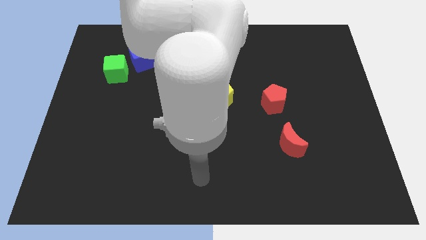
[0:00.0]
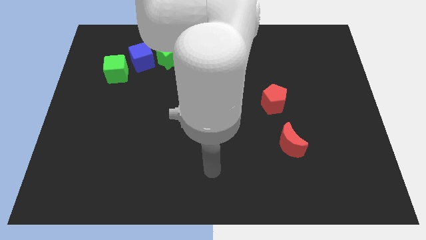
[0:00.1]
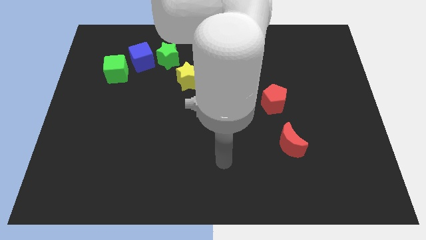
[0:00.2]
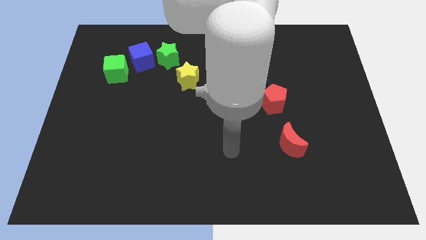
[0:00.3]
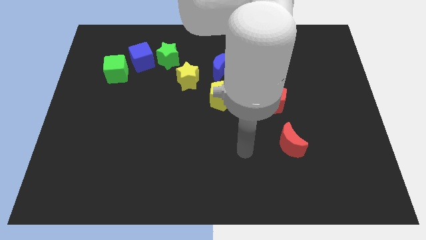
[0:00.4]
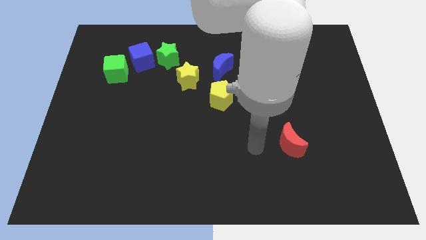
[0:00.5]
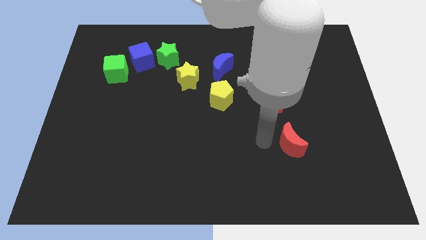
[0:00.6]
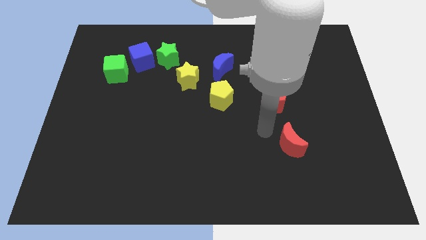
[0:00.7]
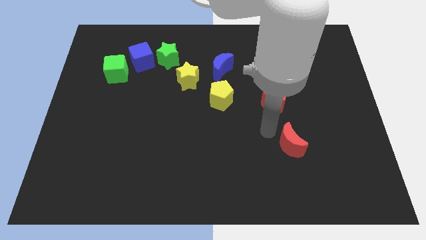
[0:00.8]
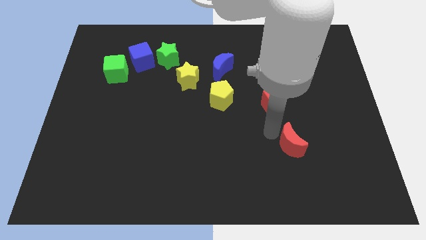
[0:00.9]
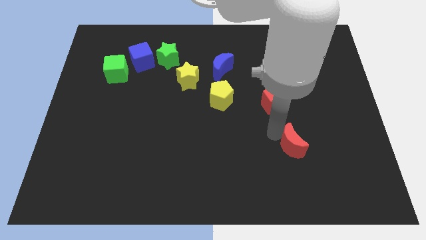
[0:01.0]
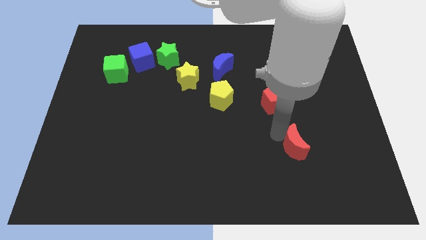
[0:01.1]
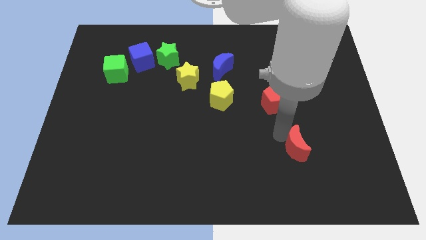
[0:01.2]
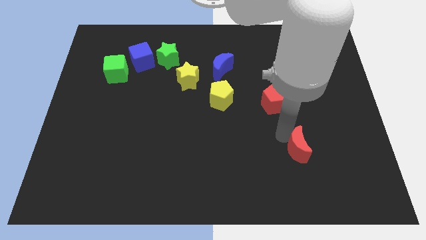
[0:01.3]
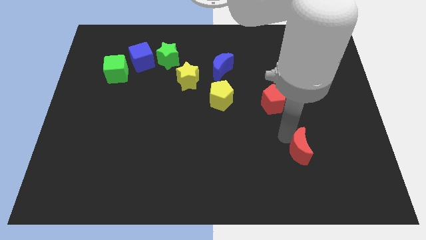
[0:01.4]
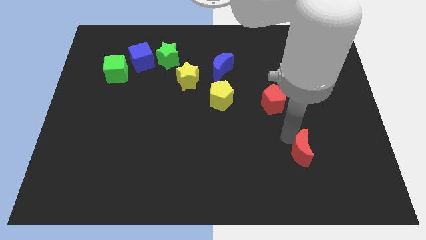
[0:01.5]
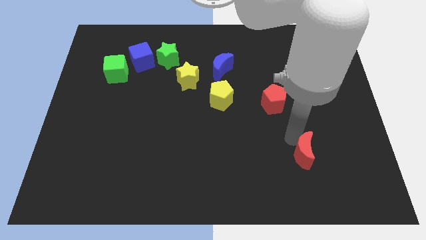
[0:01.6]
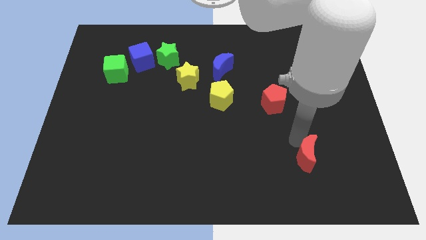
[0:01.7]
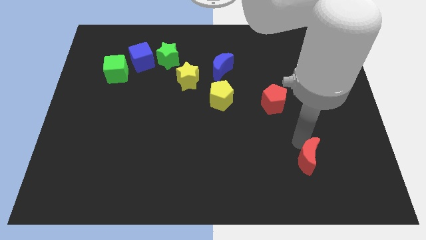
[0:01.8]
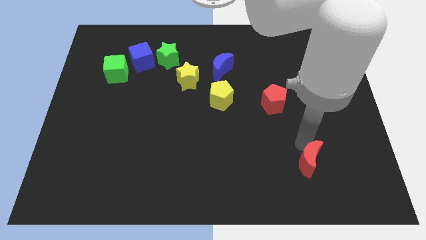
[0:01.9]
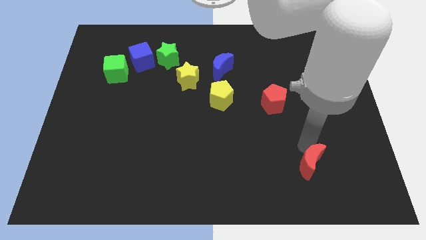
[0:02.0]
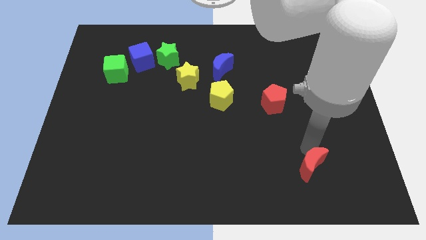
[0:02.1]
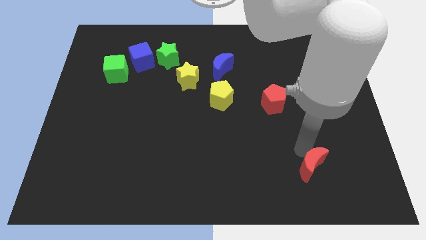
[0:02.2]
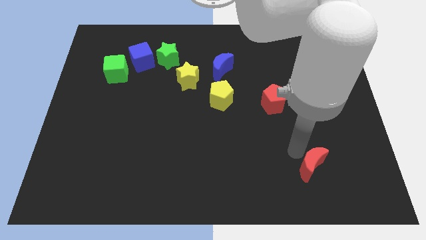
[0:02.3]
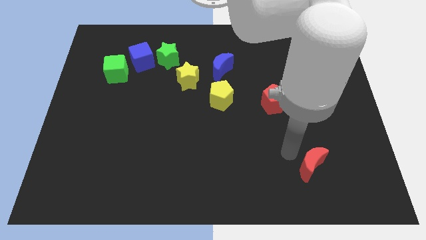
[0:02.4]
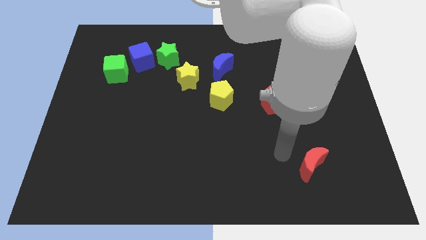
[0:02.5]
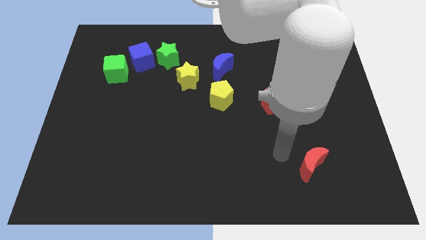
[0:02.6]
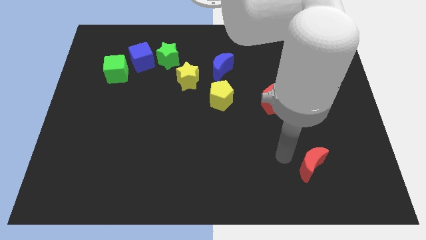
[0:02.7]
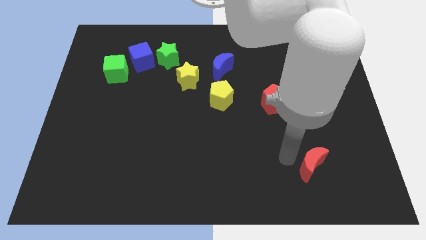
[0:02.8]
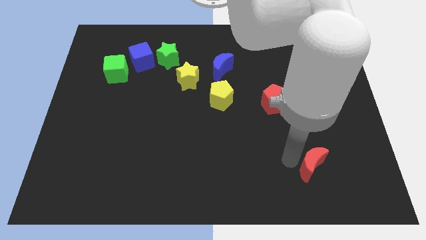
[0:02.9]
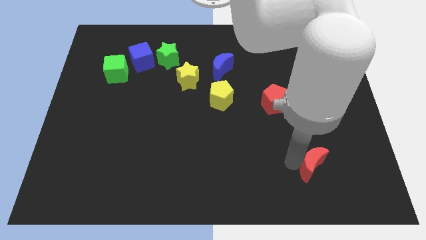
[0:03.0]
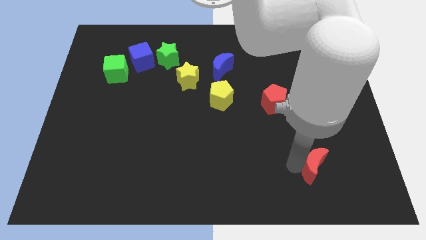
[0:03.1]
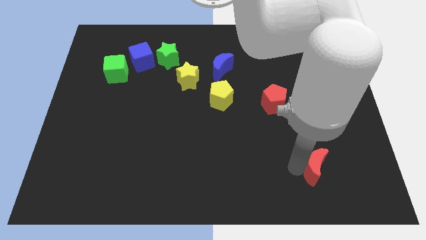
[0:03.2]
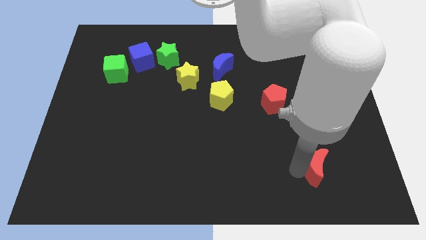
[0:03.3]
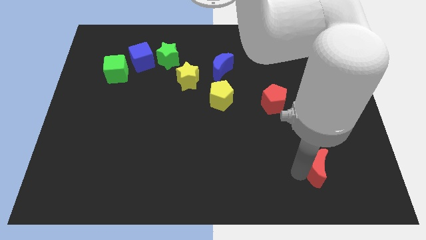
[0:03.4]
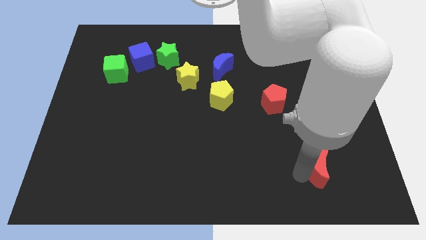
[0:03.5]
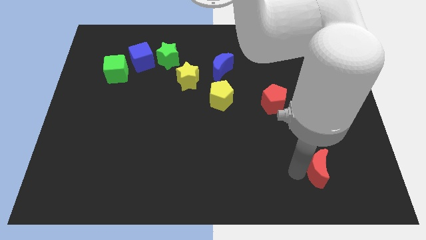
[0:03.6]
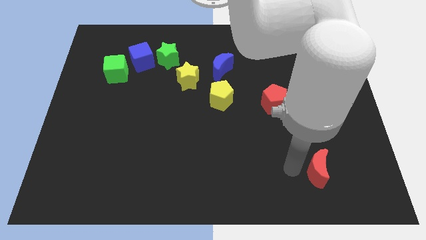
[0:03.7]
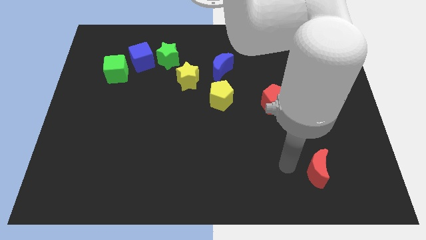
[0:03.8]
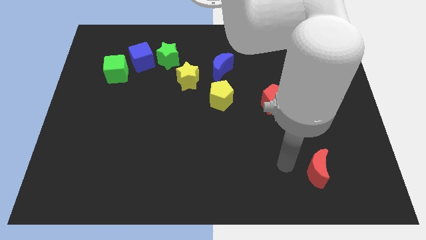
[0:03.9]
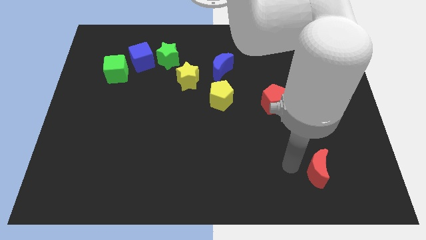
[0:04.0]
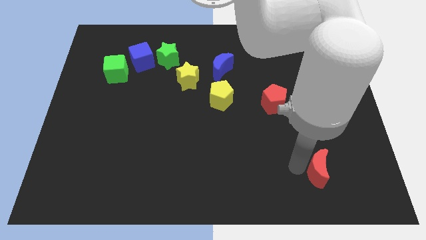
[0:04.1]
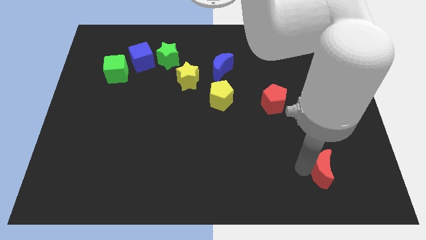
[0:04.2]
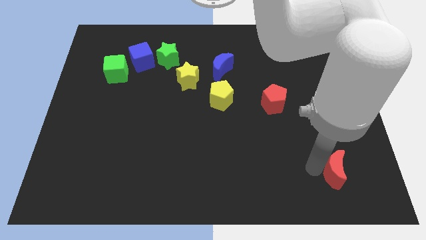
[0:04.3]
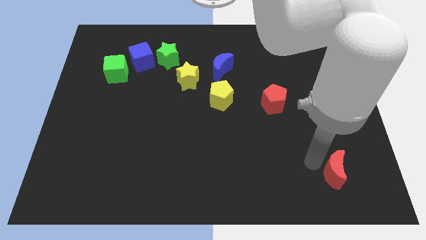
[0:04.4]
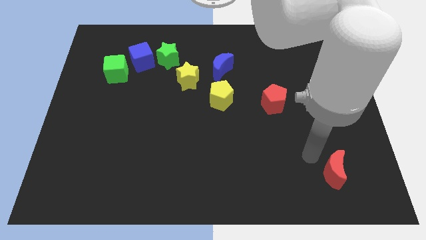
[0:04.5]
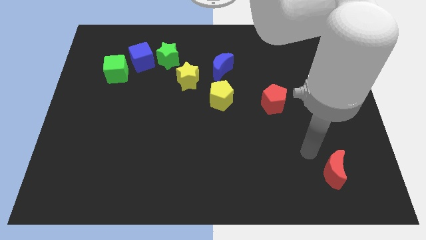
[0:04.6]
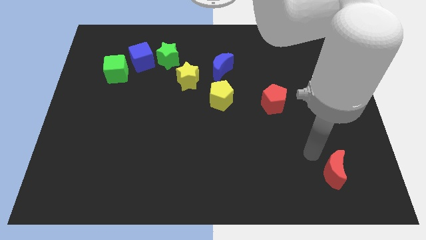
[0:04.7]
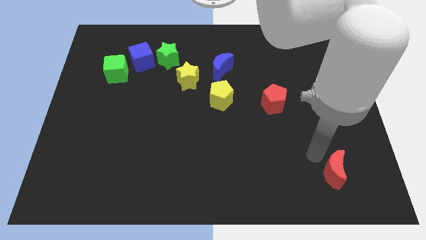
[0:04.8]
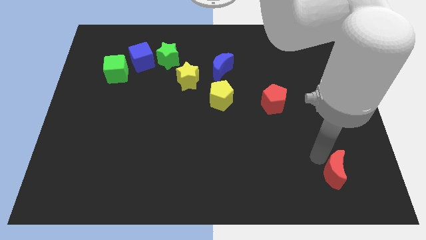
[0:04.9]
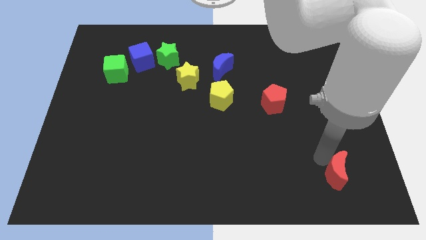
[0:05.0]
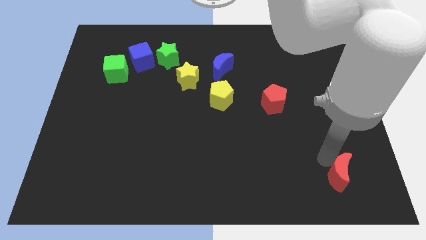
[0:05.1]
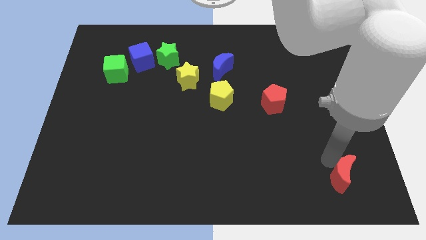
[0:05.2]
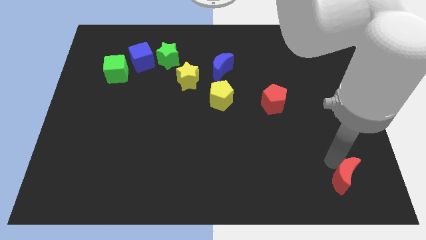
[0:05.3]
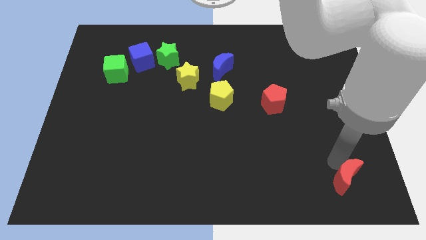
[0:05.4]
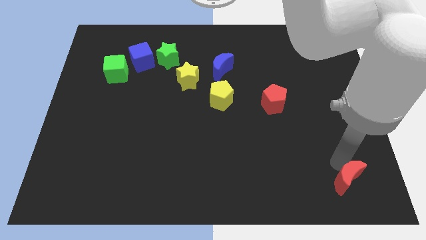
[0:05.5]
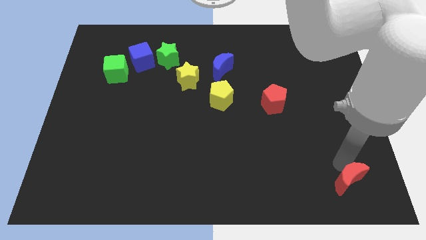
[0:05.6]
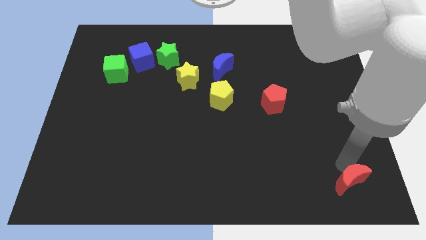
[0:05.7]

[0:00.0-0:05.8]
push the red moon to the bottom right corner
